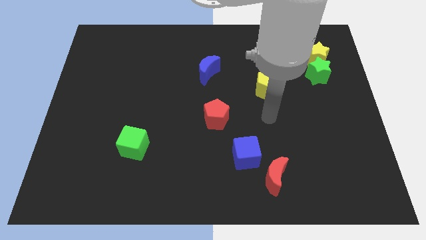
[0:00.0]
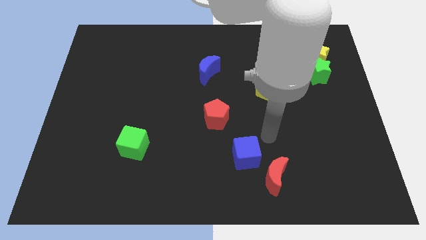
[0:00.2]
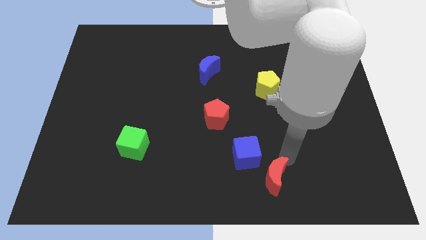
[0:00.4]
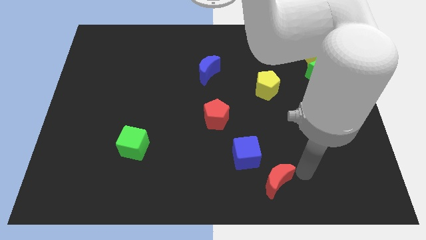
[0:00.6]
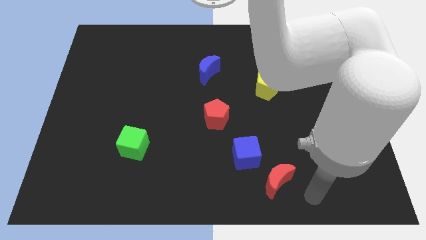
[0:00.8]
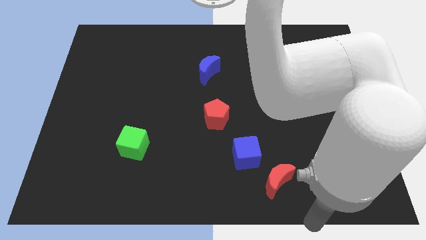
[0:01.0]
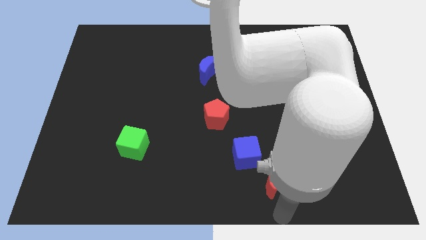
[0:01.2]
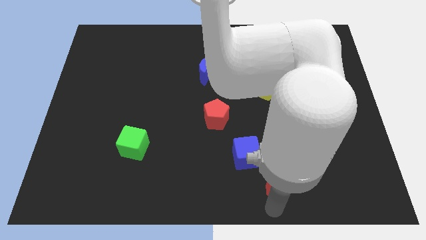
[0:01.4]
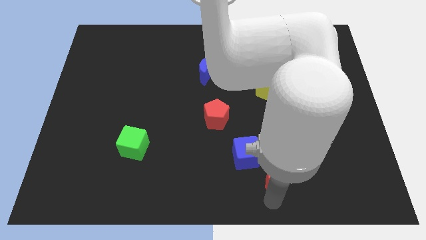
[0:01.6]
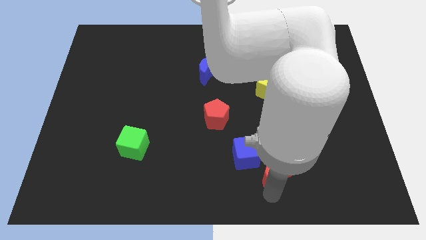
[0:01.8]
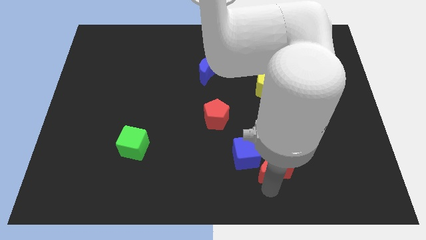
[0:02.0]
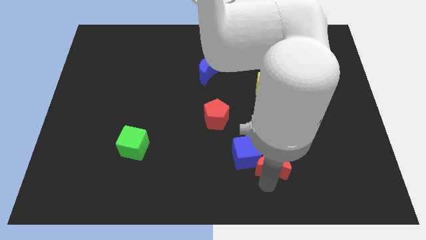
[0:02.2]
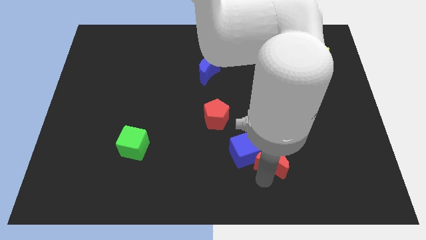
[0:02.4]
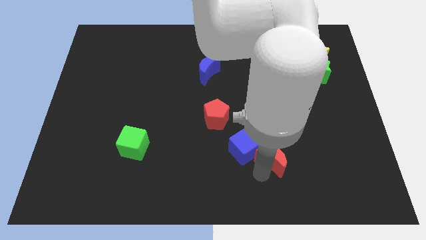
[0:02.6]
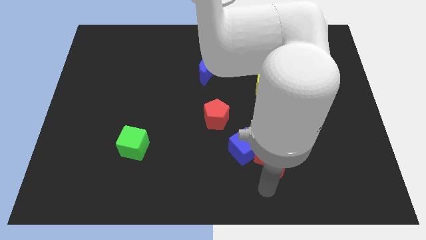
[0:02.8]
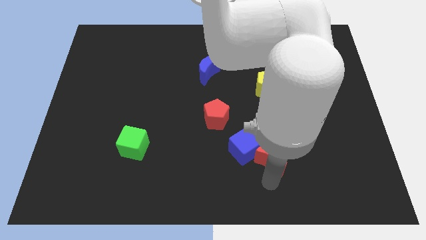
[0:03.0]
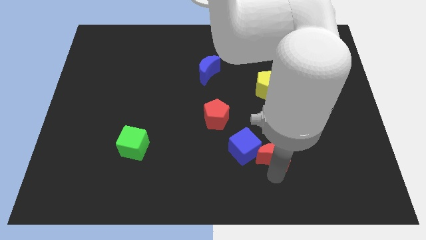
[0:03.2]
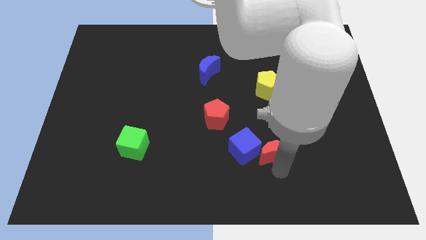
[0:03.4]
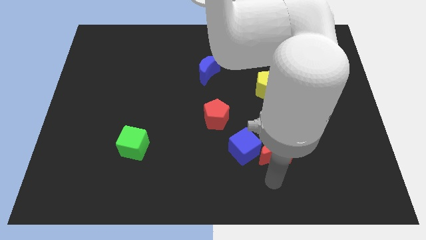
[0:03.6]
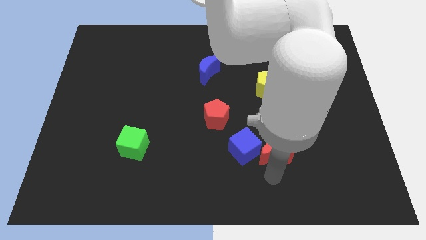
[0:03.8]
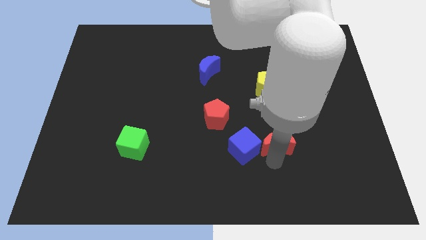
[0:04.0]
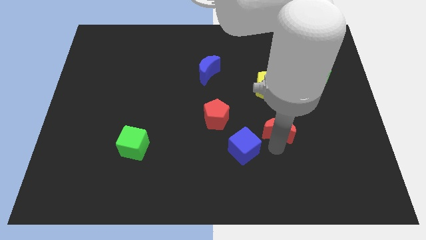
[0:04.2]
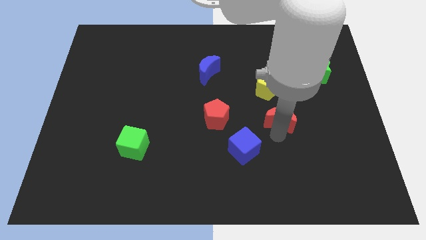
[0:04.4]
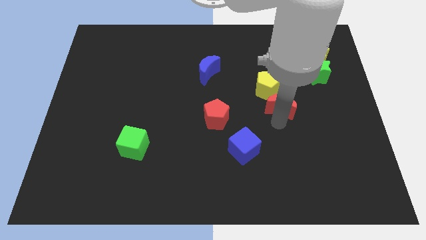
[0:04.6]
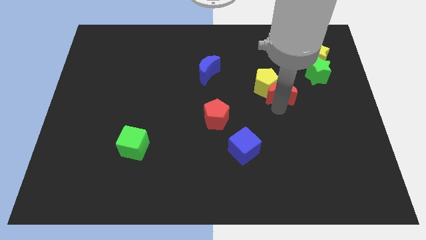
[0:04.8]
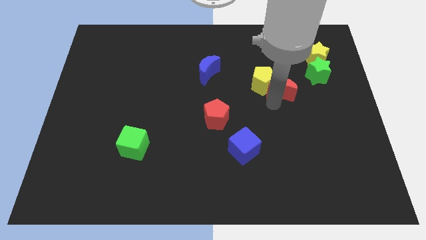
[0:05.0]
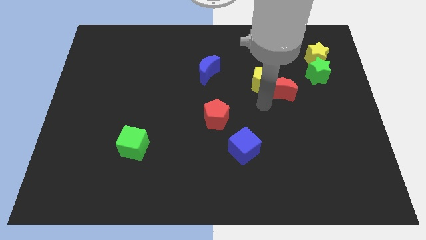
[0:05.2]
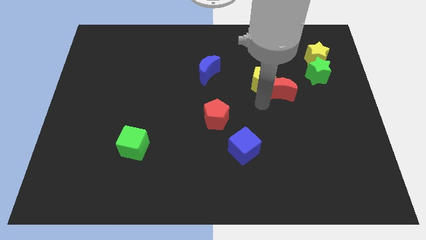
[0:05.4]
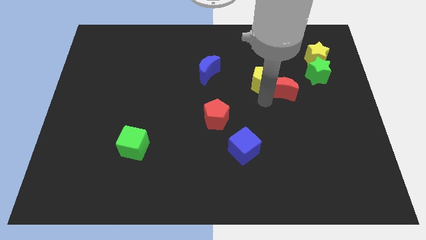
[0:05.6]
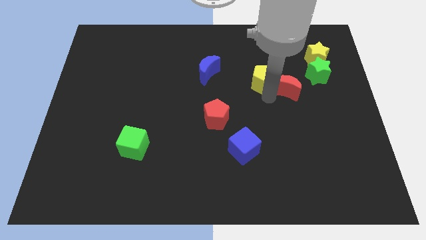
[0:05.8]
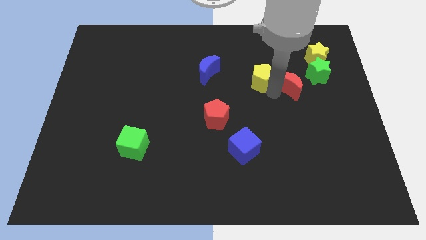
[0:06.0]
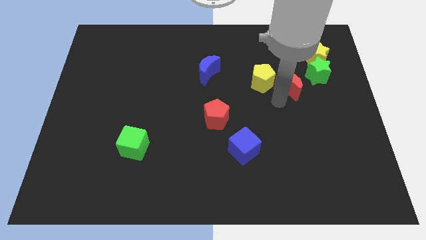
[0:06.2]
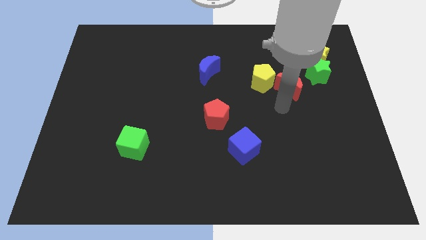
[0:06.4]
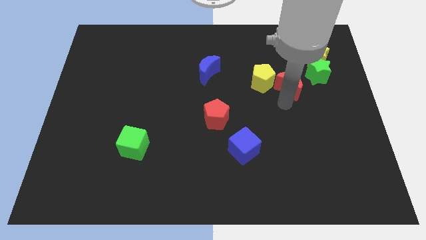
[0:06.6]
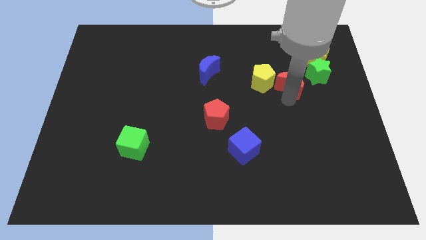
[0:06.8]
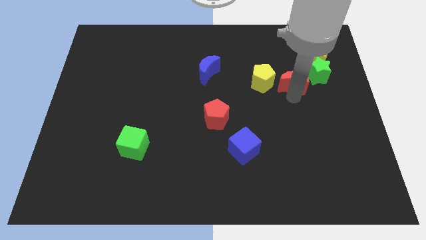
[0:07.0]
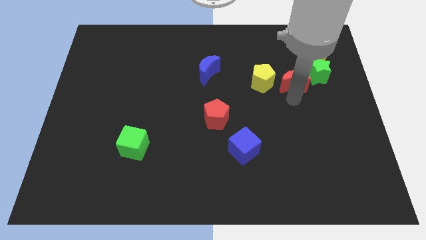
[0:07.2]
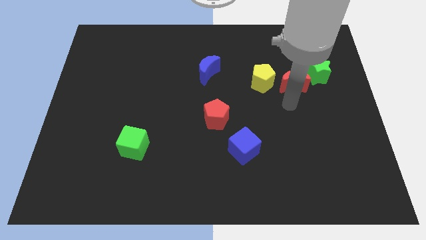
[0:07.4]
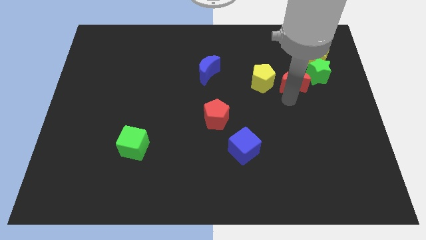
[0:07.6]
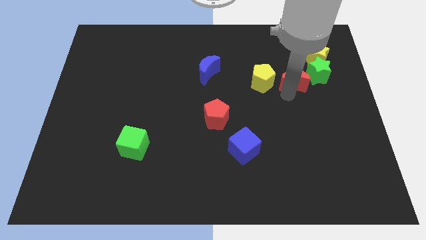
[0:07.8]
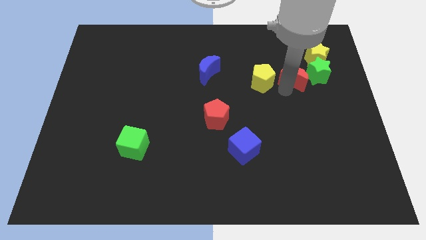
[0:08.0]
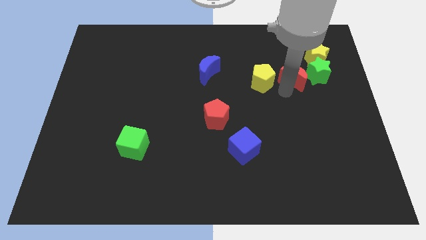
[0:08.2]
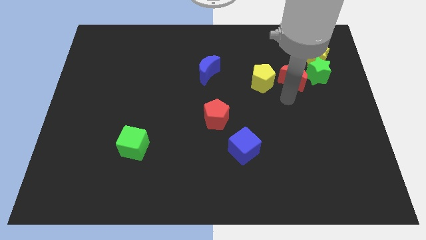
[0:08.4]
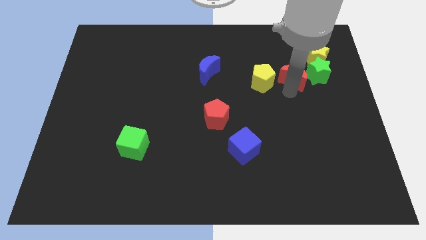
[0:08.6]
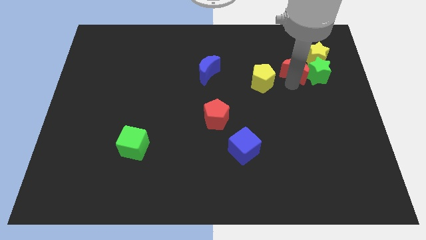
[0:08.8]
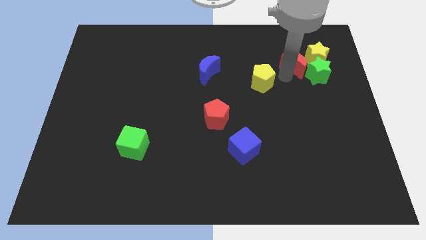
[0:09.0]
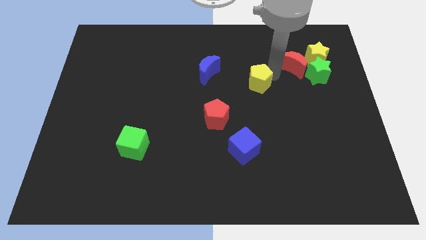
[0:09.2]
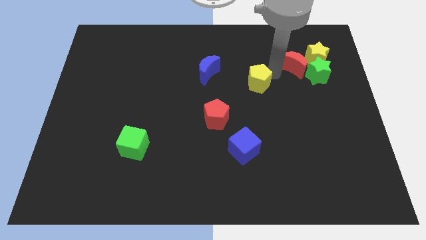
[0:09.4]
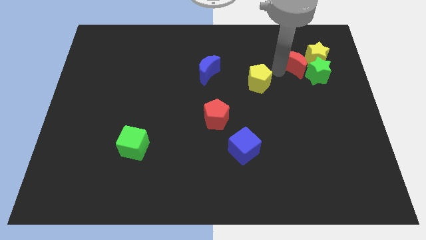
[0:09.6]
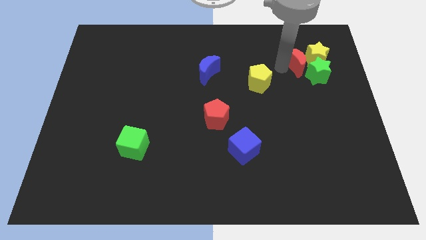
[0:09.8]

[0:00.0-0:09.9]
move the red moon next to the yellow star

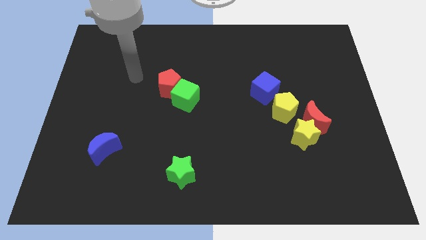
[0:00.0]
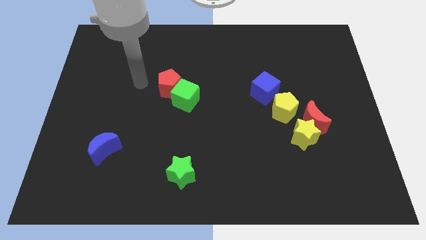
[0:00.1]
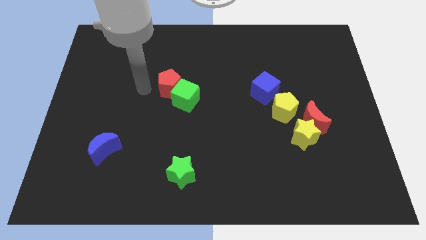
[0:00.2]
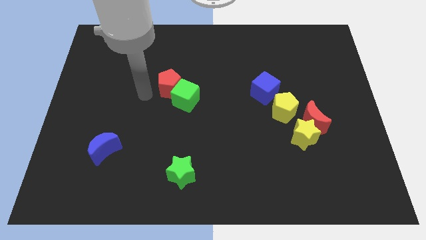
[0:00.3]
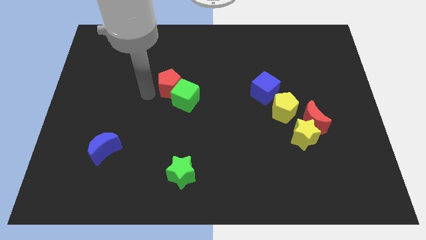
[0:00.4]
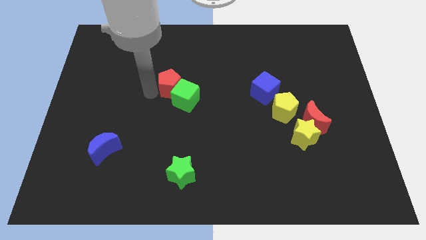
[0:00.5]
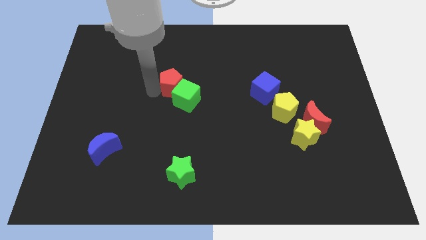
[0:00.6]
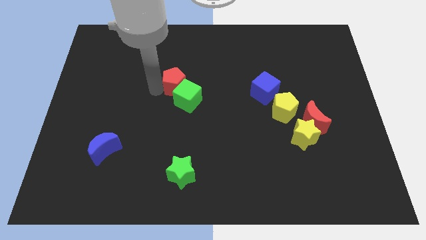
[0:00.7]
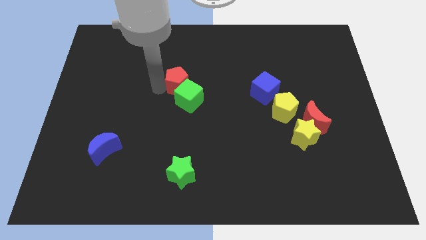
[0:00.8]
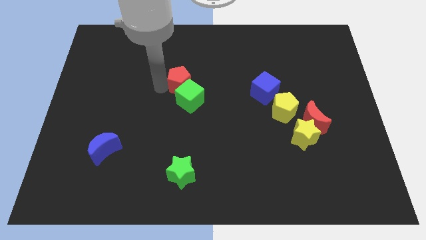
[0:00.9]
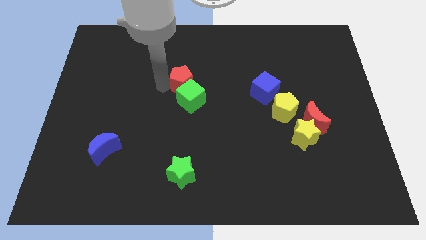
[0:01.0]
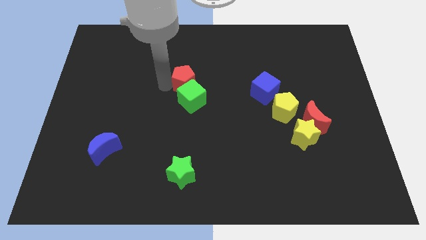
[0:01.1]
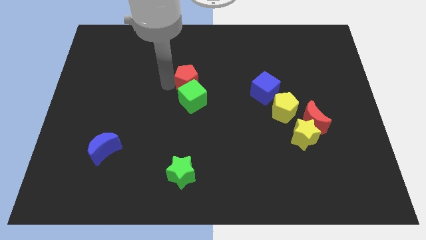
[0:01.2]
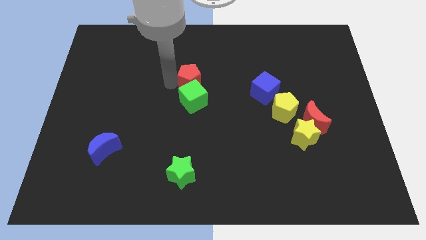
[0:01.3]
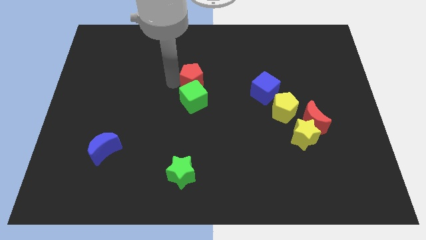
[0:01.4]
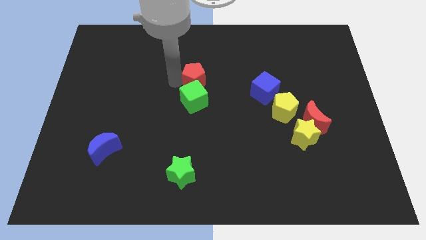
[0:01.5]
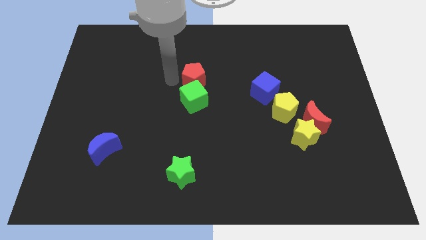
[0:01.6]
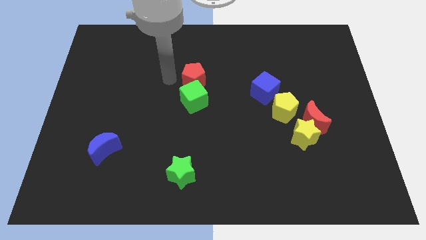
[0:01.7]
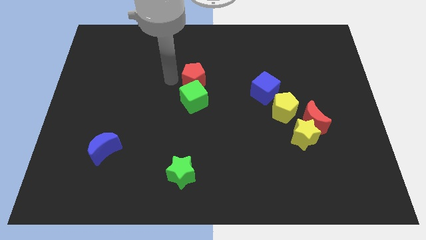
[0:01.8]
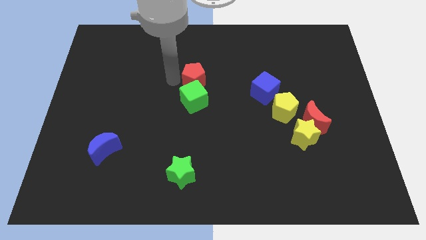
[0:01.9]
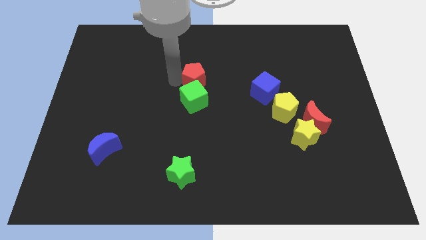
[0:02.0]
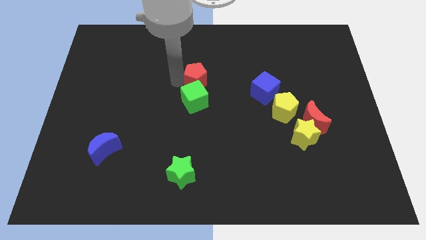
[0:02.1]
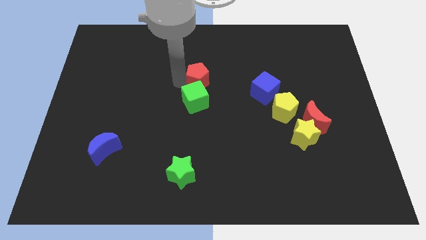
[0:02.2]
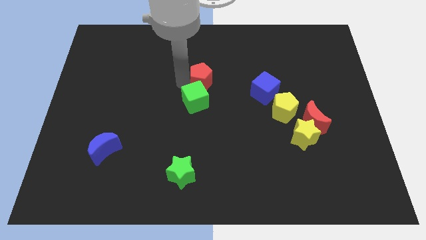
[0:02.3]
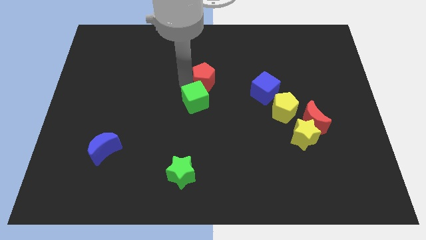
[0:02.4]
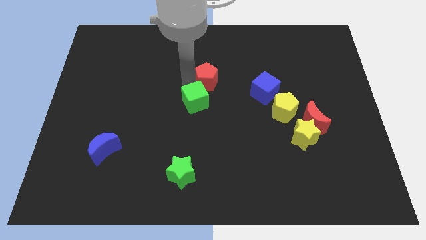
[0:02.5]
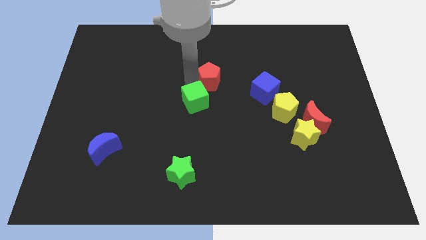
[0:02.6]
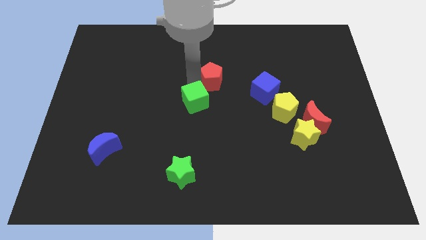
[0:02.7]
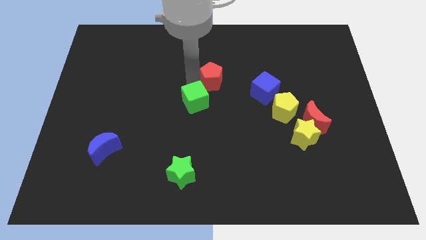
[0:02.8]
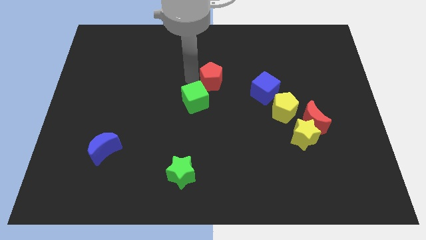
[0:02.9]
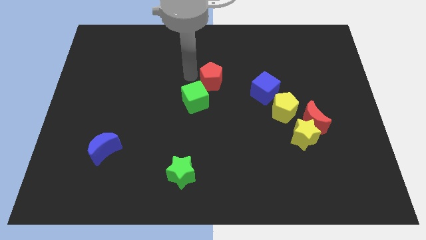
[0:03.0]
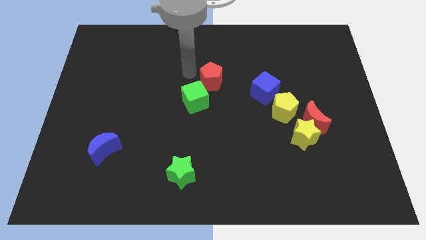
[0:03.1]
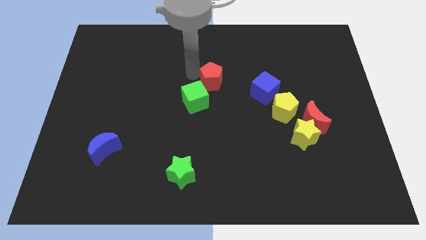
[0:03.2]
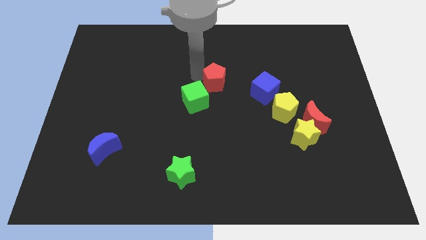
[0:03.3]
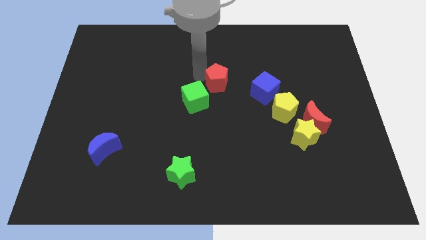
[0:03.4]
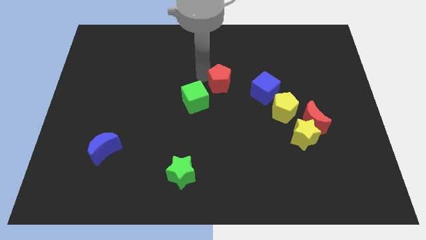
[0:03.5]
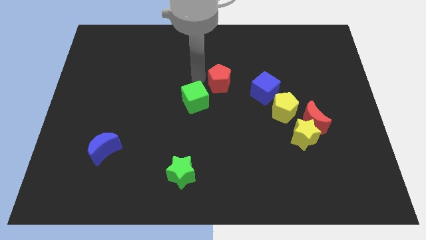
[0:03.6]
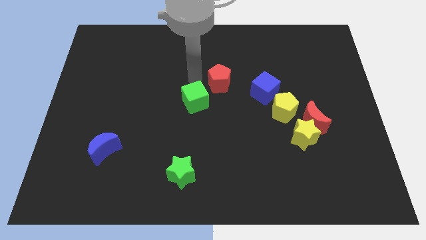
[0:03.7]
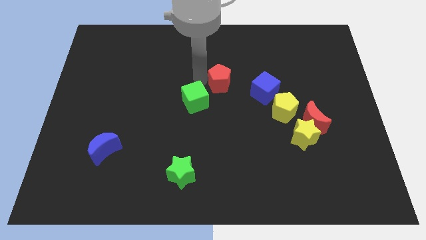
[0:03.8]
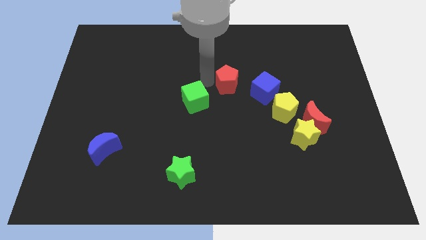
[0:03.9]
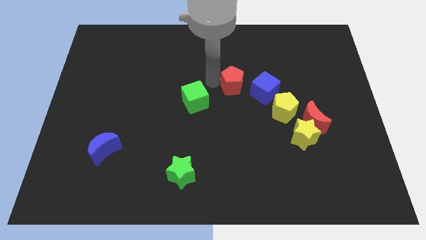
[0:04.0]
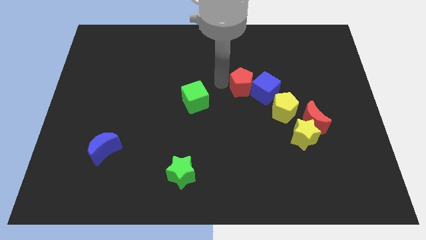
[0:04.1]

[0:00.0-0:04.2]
push the red pentagon to the blue cube
